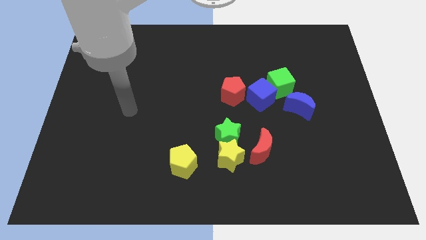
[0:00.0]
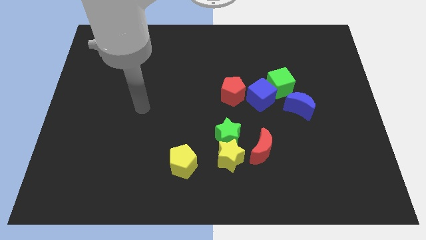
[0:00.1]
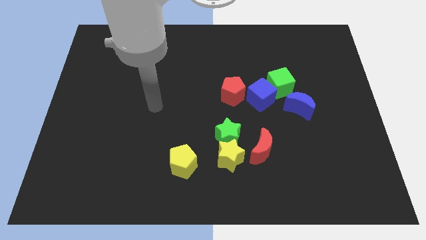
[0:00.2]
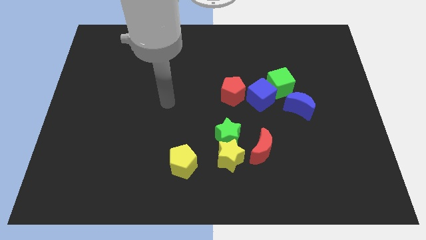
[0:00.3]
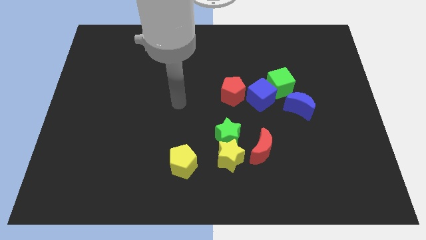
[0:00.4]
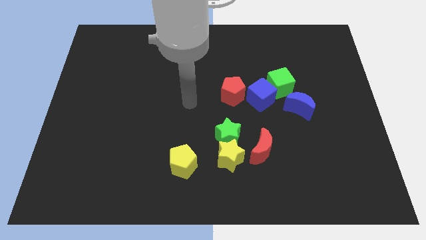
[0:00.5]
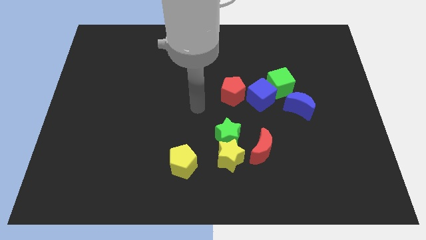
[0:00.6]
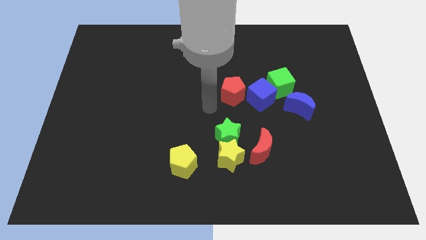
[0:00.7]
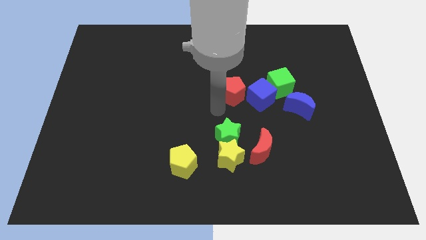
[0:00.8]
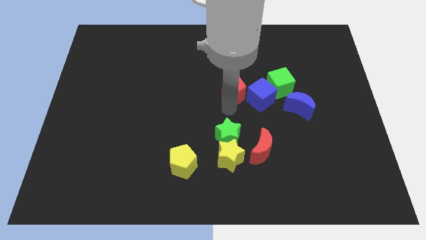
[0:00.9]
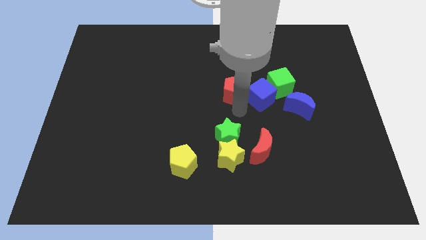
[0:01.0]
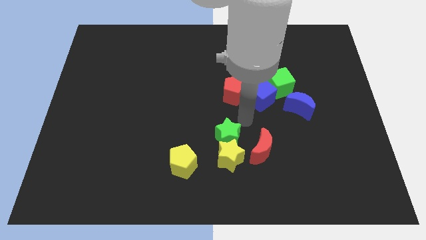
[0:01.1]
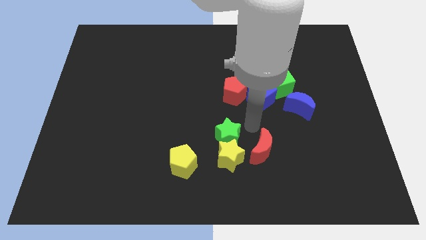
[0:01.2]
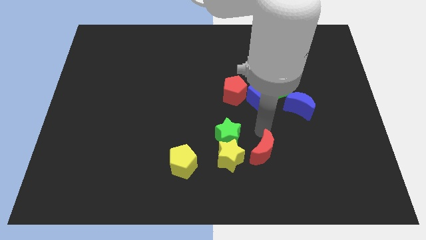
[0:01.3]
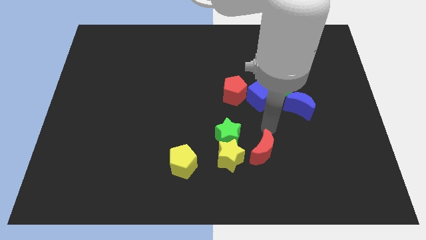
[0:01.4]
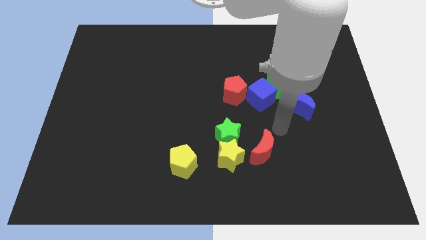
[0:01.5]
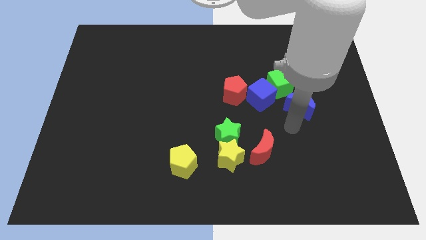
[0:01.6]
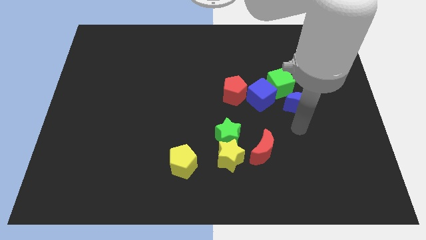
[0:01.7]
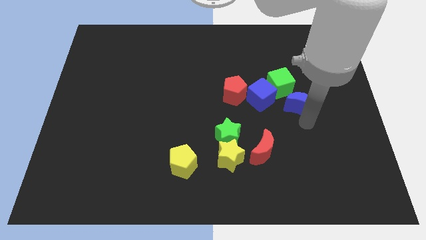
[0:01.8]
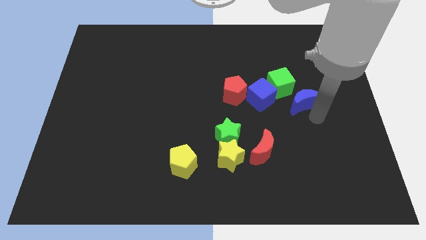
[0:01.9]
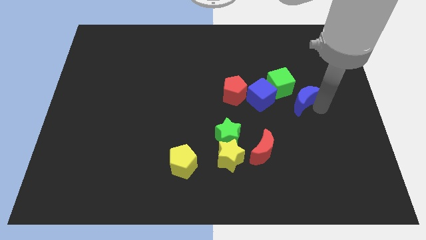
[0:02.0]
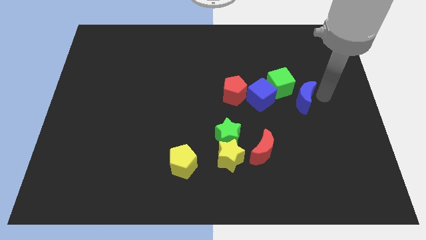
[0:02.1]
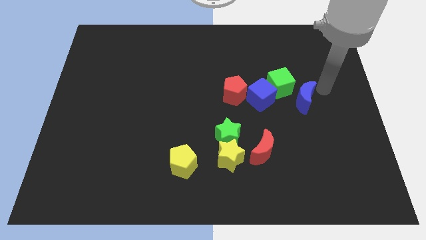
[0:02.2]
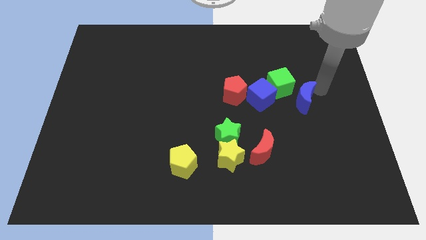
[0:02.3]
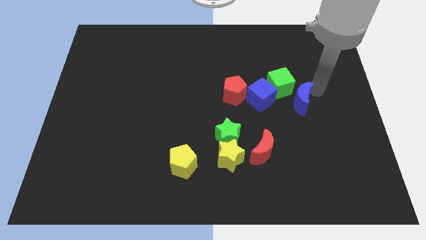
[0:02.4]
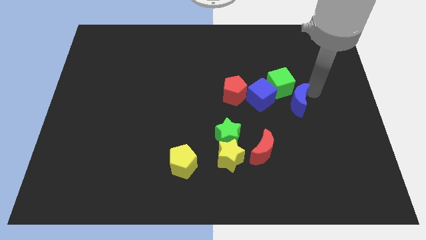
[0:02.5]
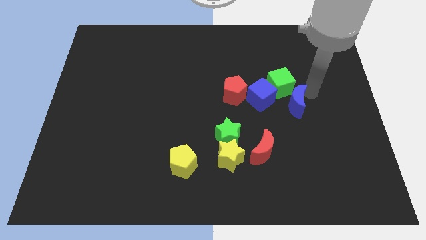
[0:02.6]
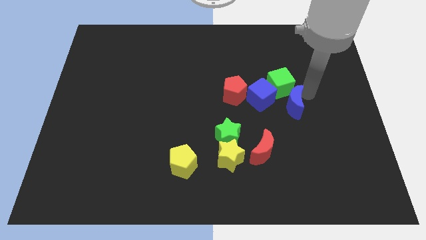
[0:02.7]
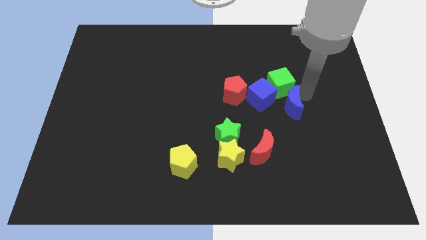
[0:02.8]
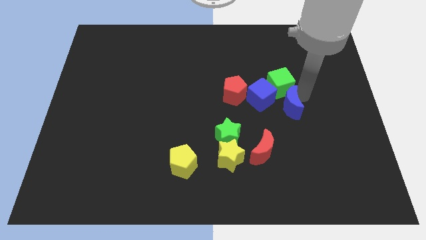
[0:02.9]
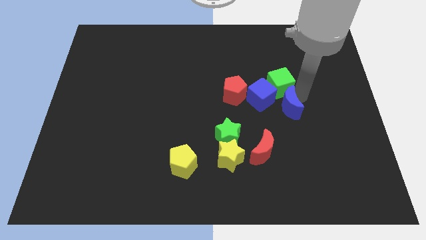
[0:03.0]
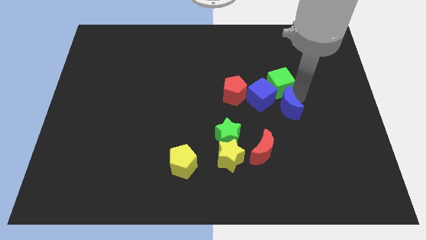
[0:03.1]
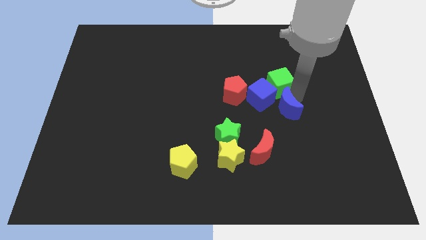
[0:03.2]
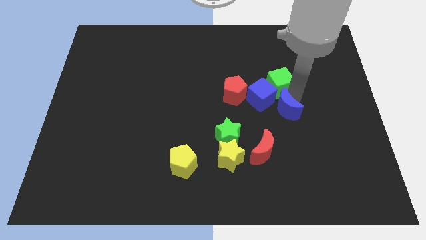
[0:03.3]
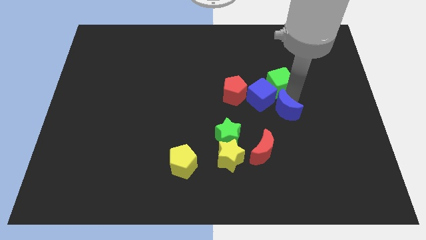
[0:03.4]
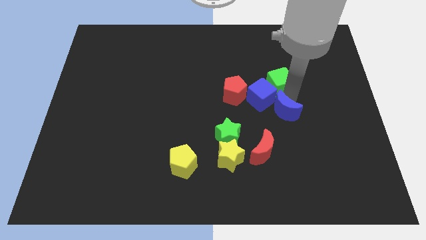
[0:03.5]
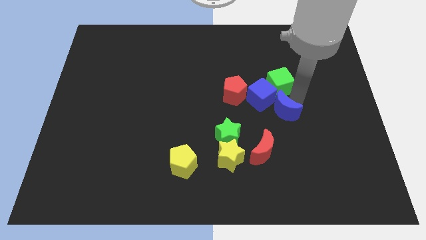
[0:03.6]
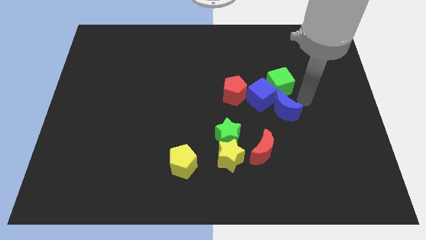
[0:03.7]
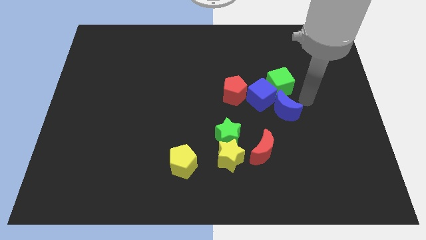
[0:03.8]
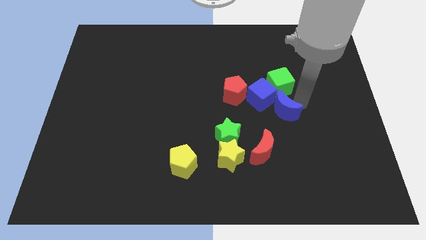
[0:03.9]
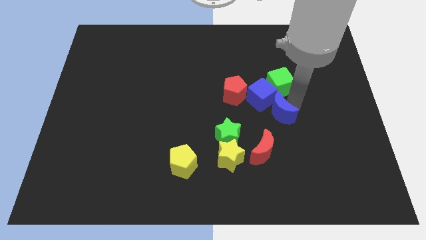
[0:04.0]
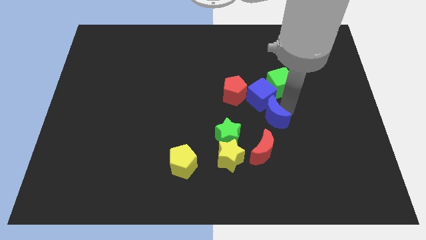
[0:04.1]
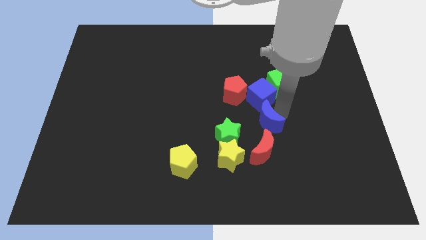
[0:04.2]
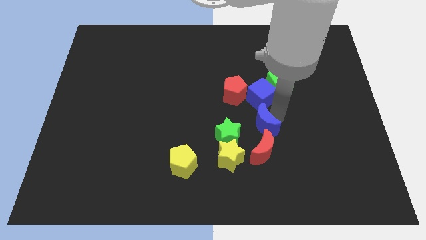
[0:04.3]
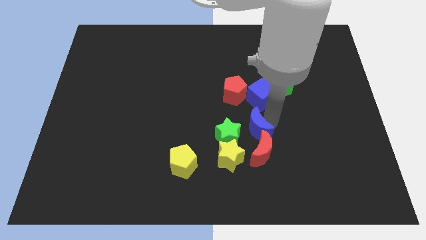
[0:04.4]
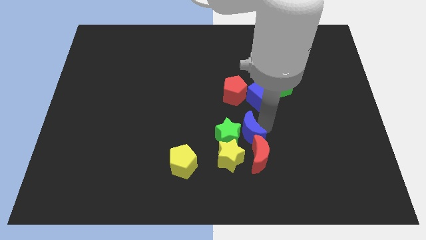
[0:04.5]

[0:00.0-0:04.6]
put the blue moon towards the green star

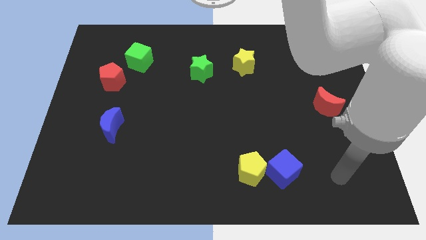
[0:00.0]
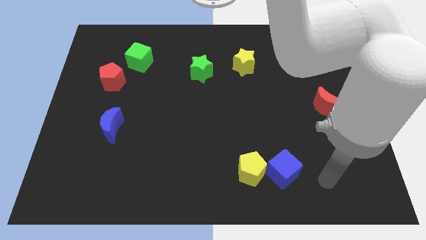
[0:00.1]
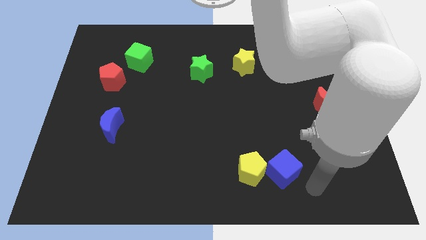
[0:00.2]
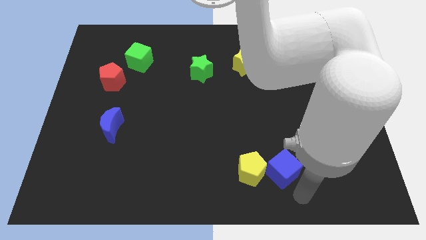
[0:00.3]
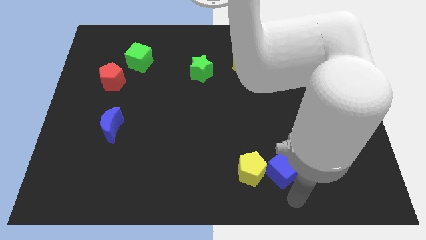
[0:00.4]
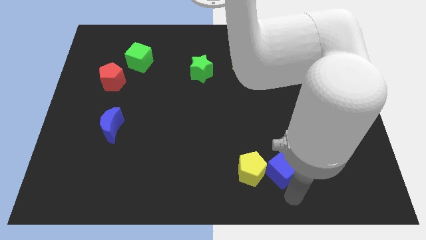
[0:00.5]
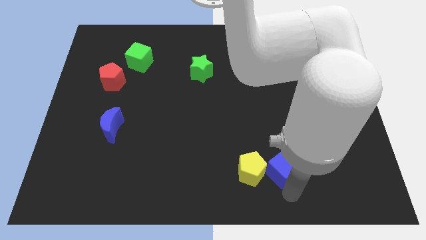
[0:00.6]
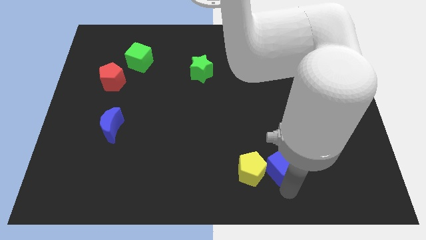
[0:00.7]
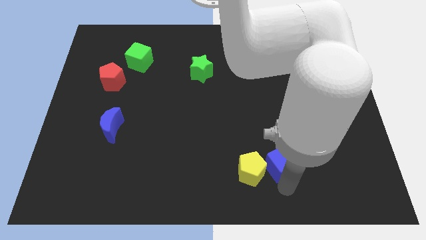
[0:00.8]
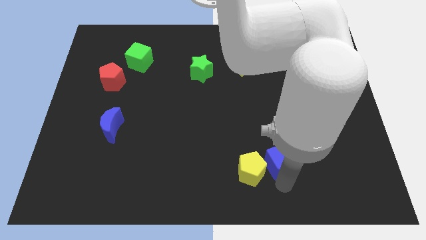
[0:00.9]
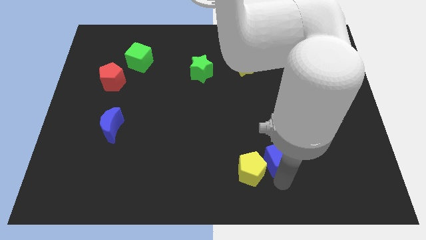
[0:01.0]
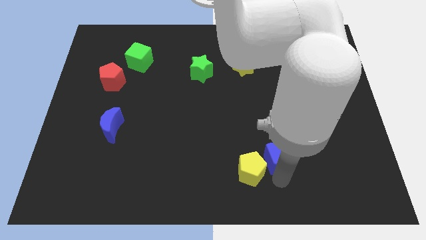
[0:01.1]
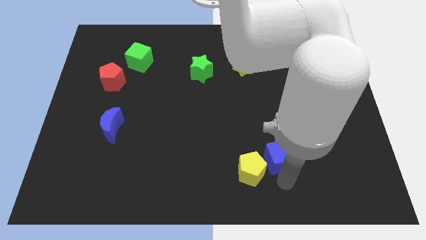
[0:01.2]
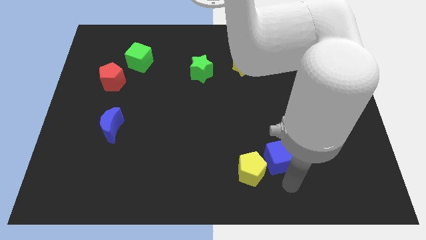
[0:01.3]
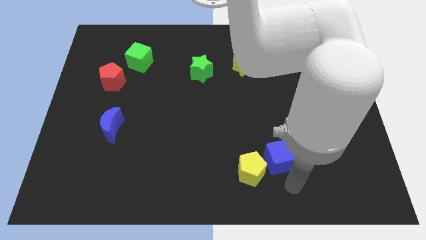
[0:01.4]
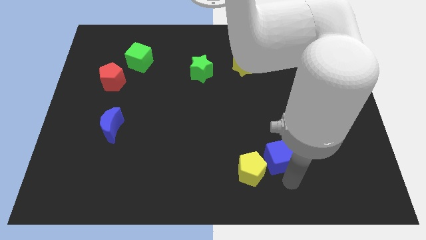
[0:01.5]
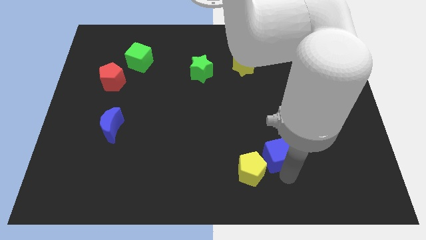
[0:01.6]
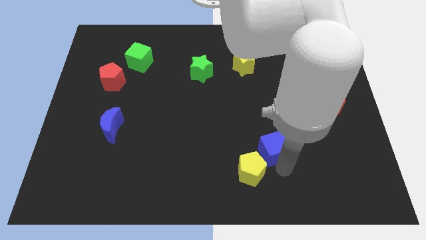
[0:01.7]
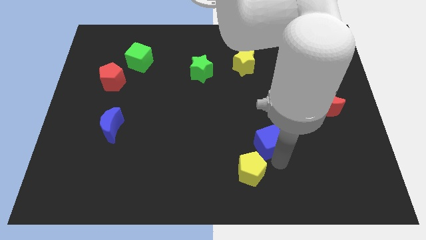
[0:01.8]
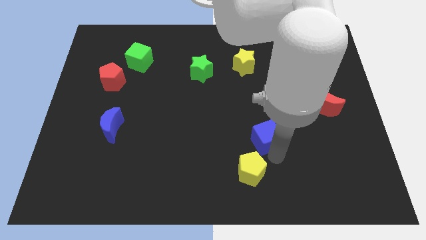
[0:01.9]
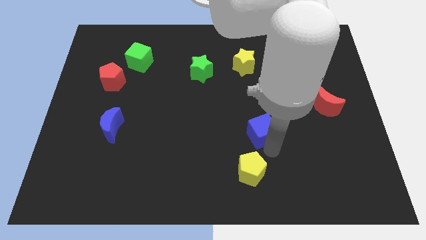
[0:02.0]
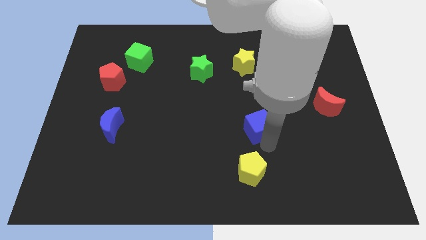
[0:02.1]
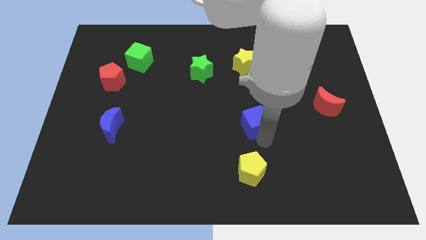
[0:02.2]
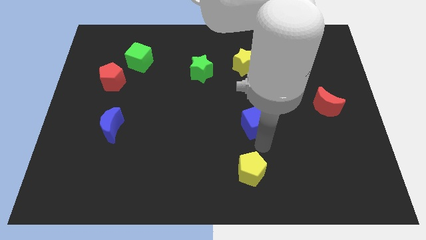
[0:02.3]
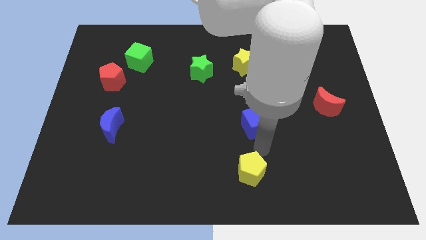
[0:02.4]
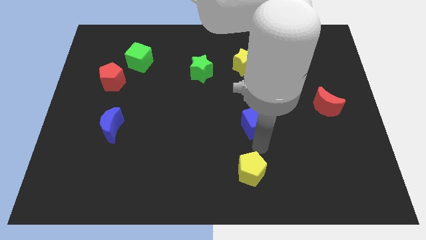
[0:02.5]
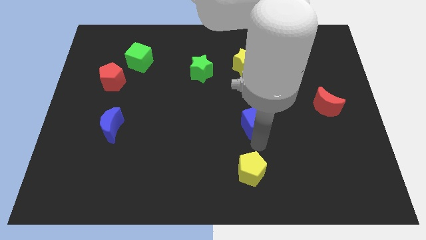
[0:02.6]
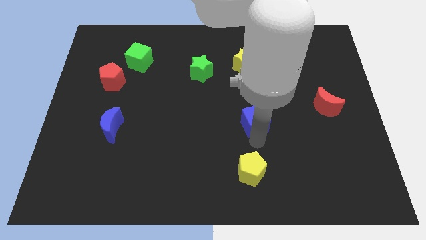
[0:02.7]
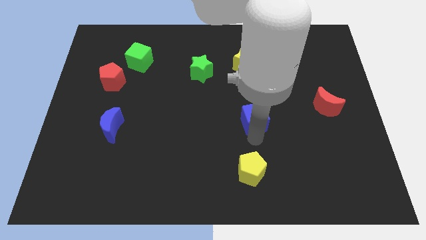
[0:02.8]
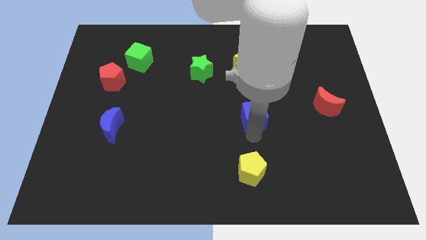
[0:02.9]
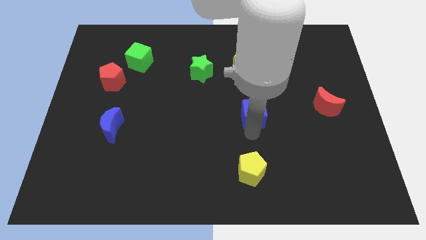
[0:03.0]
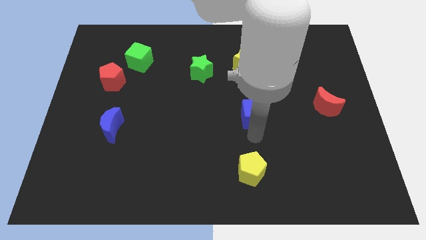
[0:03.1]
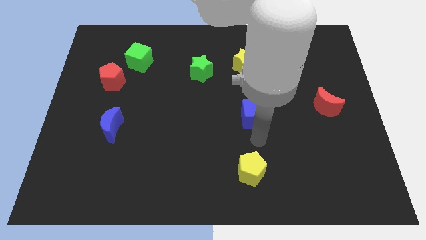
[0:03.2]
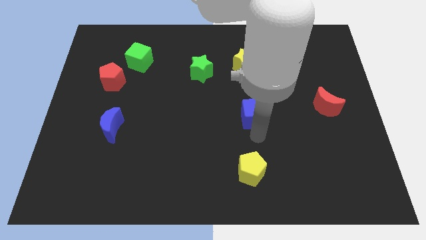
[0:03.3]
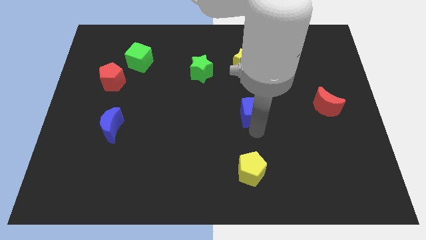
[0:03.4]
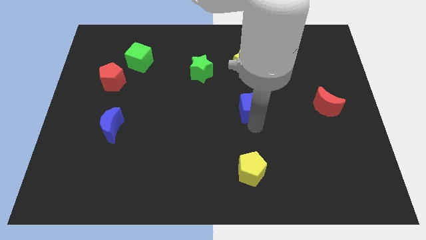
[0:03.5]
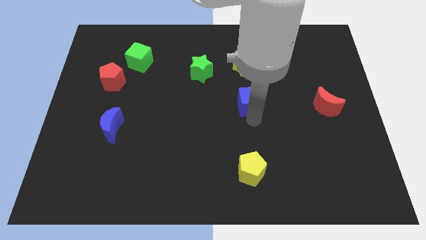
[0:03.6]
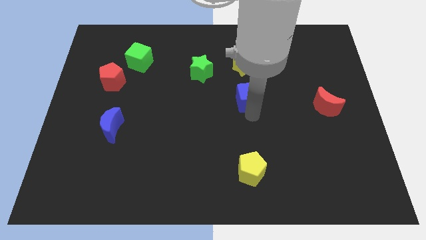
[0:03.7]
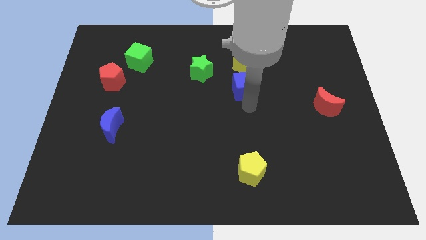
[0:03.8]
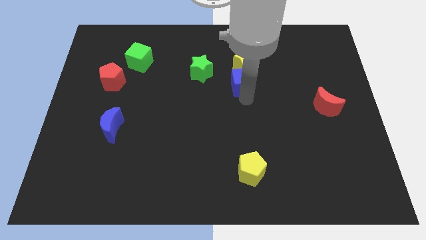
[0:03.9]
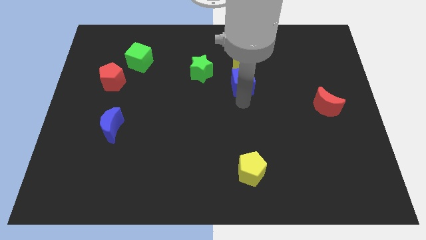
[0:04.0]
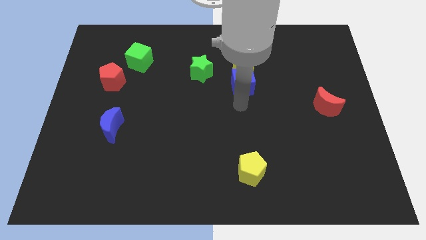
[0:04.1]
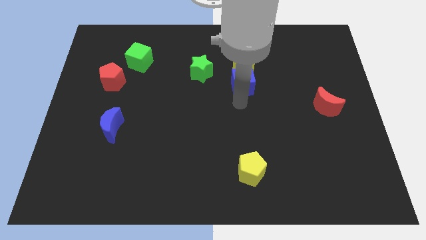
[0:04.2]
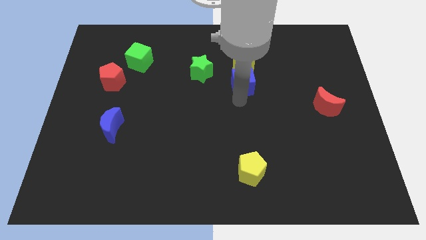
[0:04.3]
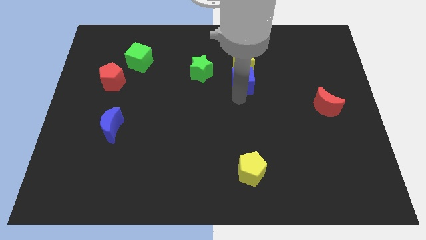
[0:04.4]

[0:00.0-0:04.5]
push the blue cube close to the yellow star
